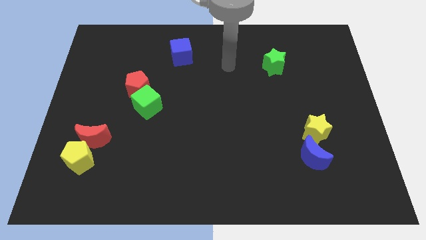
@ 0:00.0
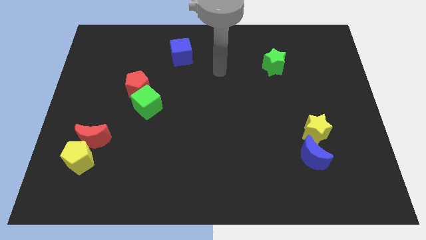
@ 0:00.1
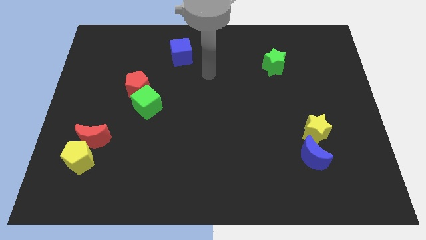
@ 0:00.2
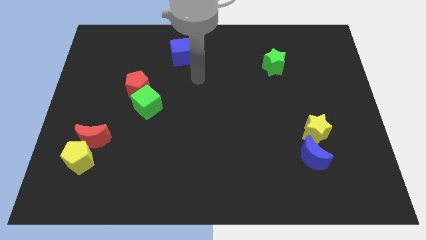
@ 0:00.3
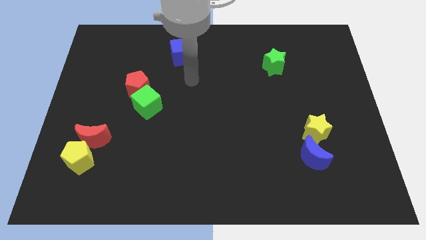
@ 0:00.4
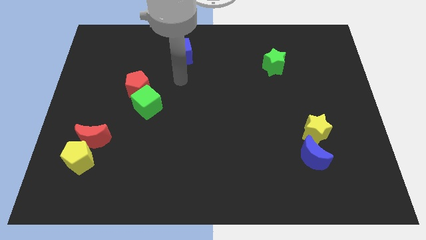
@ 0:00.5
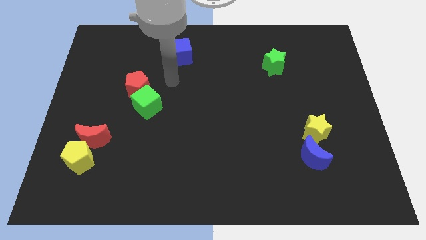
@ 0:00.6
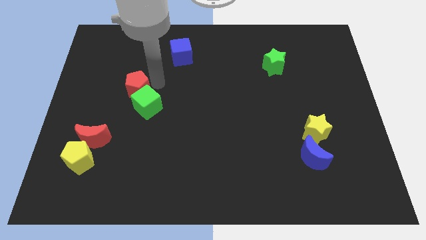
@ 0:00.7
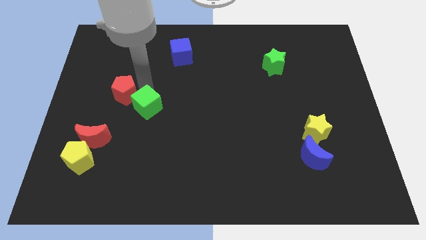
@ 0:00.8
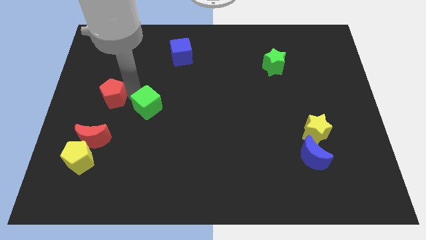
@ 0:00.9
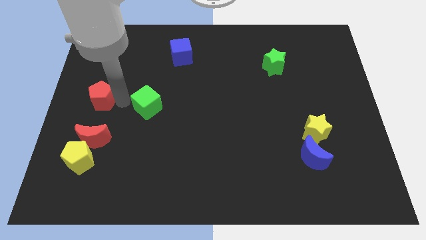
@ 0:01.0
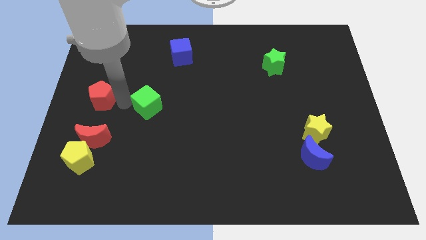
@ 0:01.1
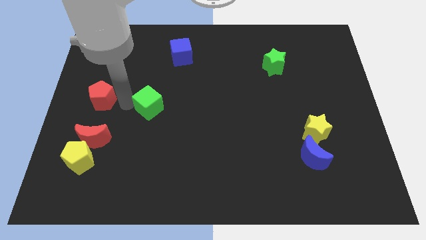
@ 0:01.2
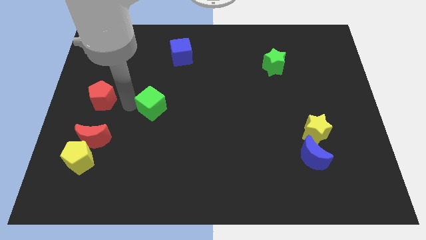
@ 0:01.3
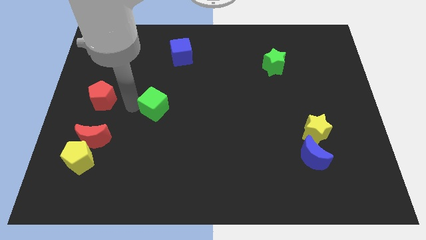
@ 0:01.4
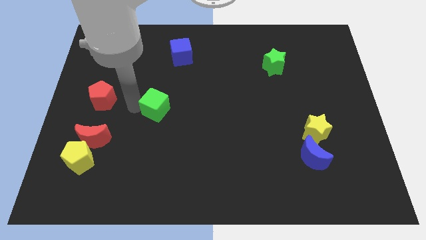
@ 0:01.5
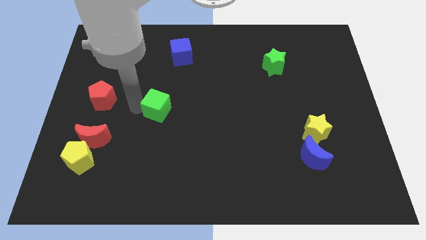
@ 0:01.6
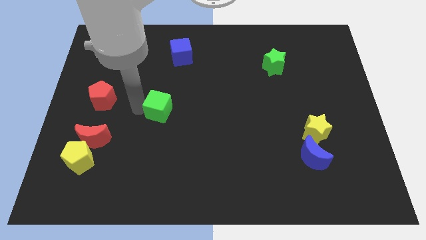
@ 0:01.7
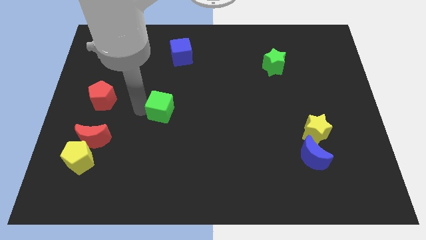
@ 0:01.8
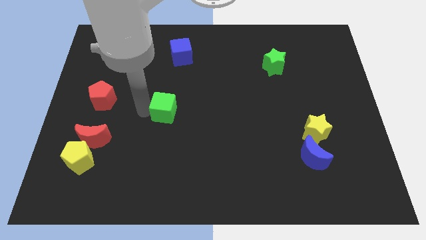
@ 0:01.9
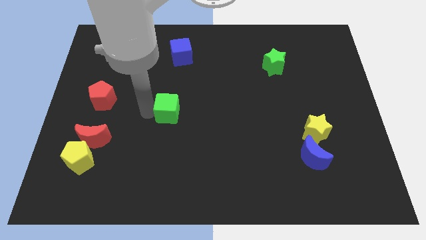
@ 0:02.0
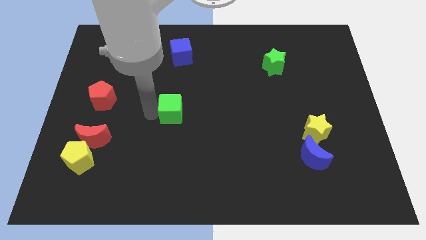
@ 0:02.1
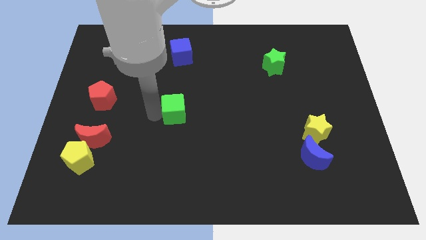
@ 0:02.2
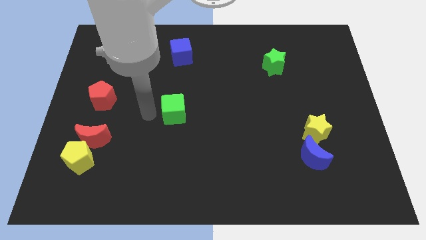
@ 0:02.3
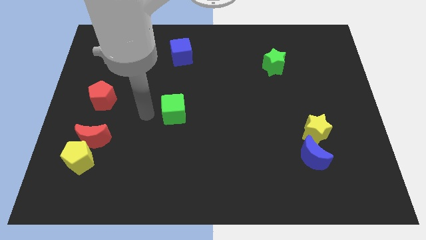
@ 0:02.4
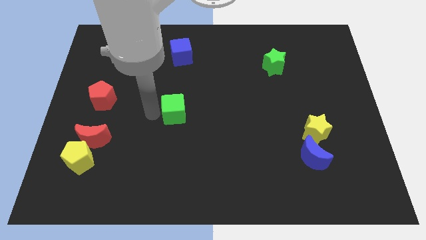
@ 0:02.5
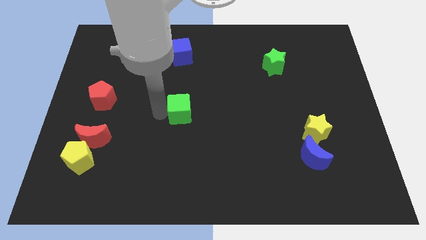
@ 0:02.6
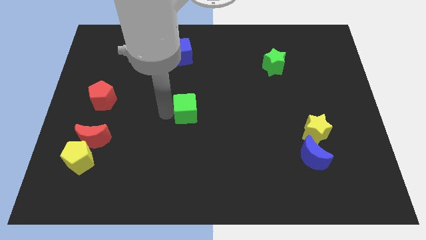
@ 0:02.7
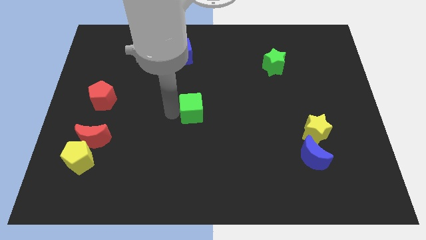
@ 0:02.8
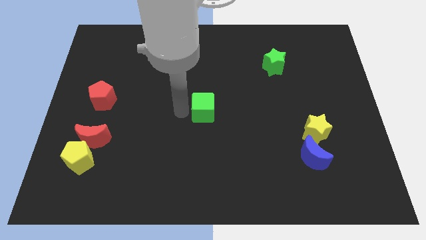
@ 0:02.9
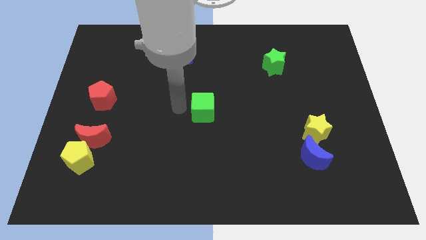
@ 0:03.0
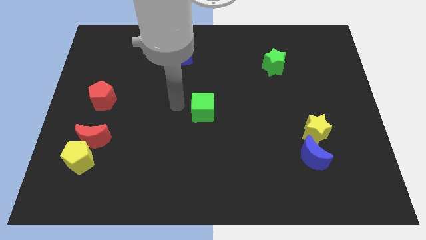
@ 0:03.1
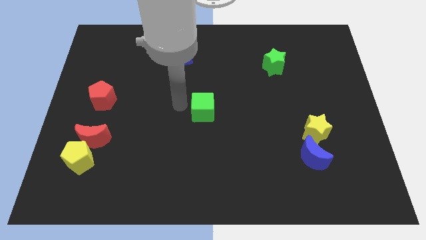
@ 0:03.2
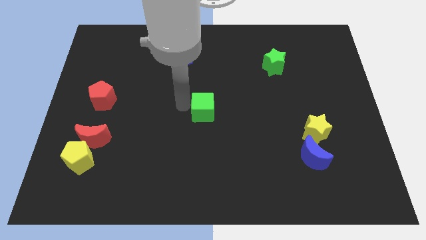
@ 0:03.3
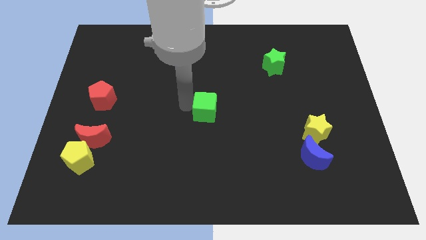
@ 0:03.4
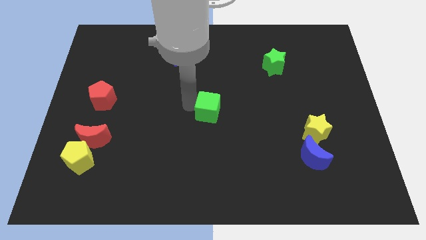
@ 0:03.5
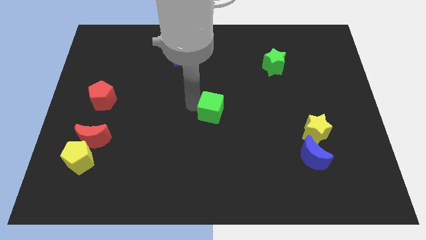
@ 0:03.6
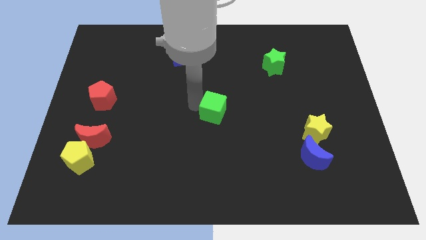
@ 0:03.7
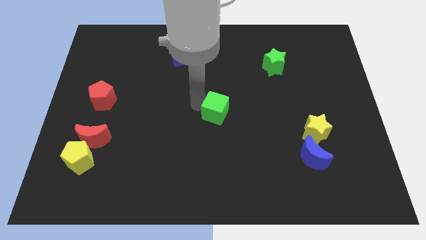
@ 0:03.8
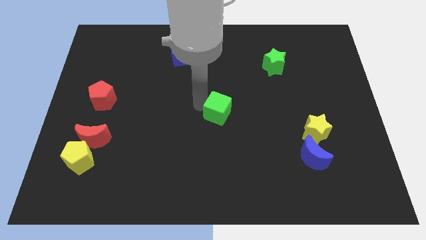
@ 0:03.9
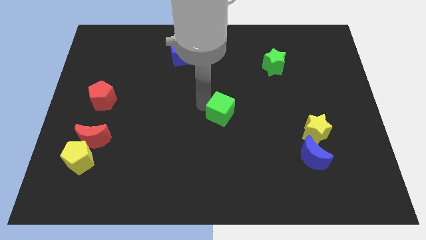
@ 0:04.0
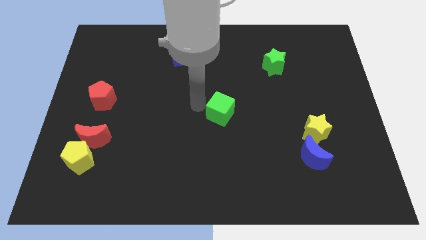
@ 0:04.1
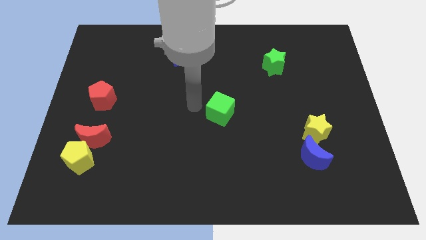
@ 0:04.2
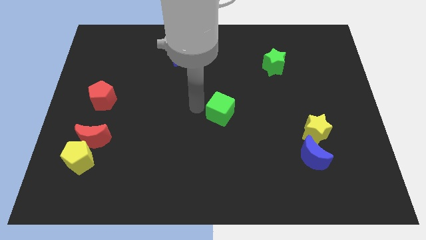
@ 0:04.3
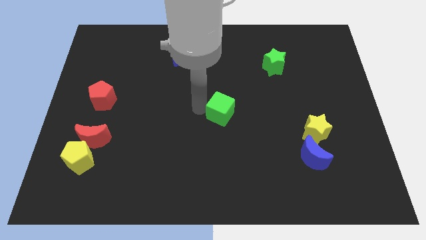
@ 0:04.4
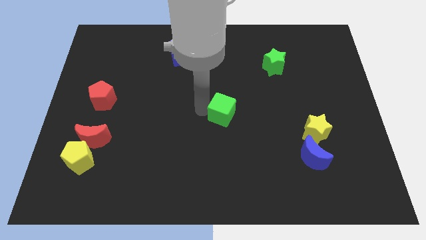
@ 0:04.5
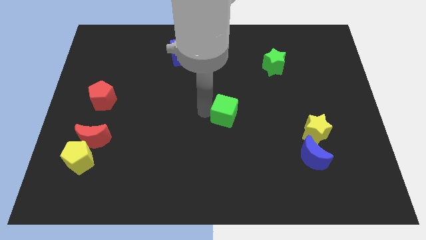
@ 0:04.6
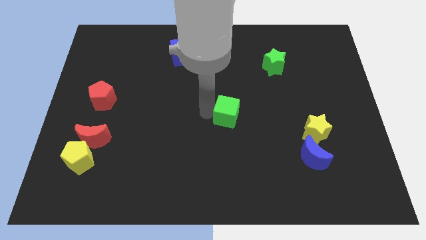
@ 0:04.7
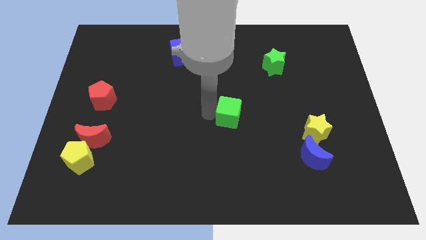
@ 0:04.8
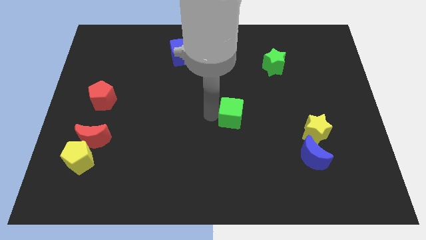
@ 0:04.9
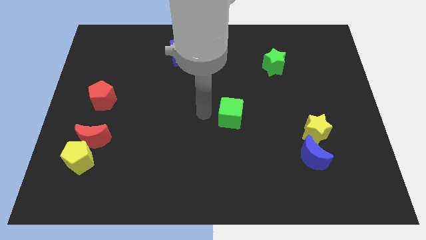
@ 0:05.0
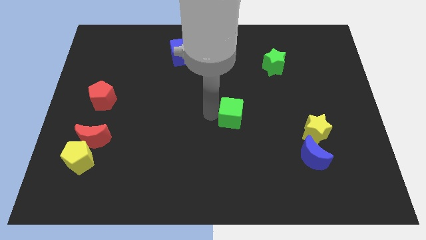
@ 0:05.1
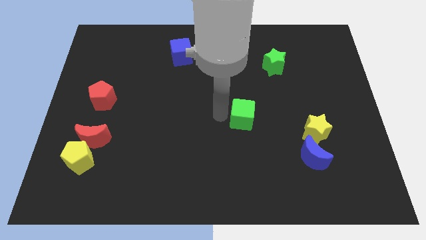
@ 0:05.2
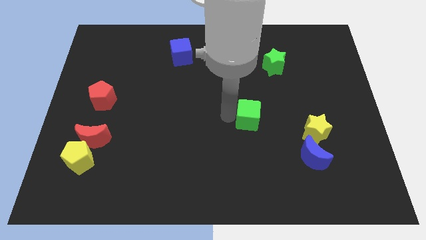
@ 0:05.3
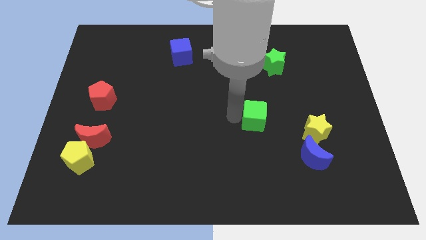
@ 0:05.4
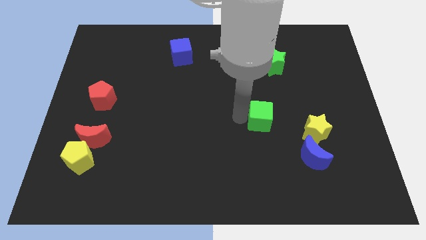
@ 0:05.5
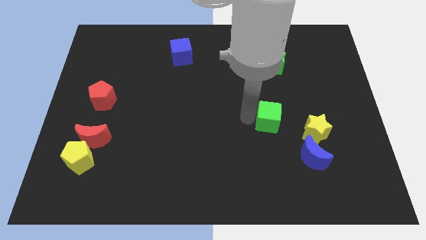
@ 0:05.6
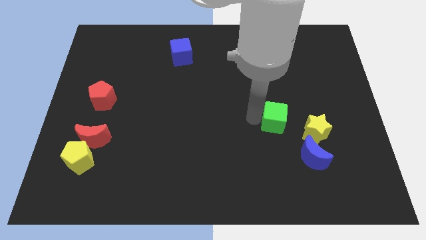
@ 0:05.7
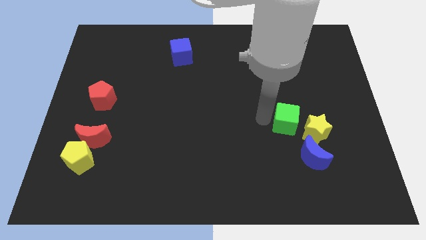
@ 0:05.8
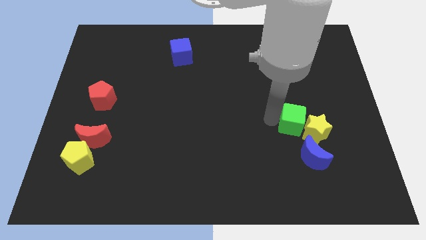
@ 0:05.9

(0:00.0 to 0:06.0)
put the green cube next to the yellow star

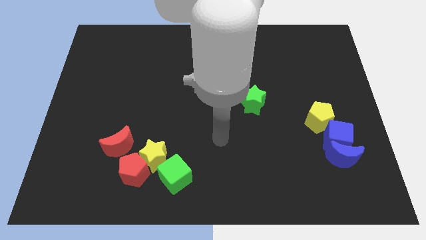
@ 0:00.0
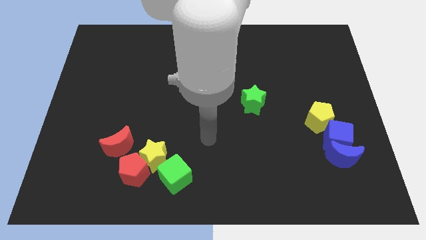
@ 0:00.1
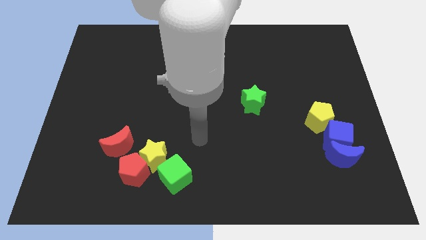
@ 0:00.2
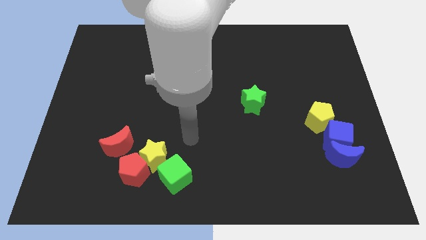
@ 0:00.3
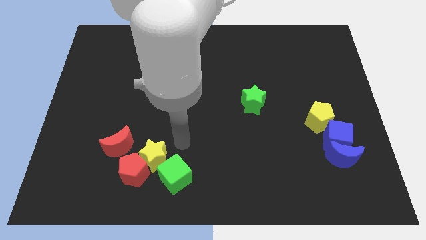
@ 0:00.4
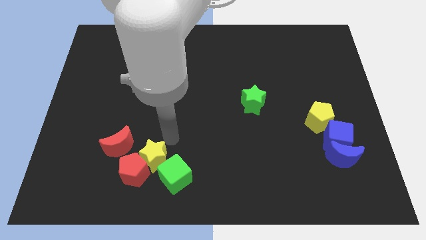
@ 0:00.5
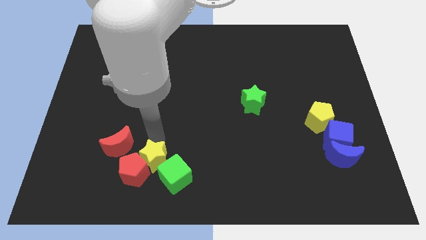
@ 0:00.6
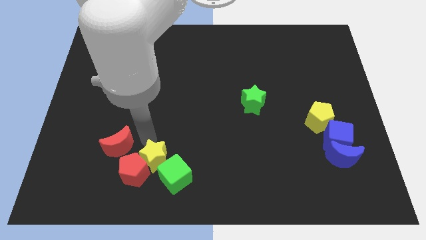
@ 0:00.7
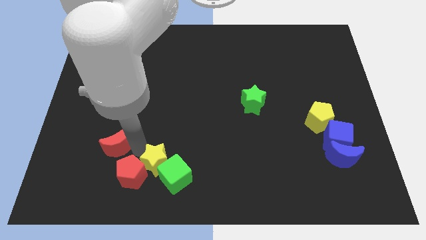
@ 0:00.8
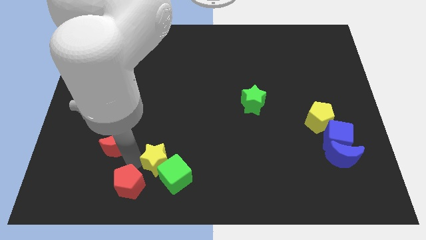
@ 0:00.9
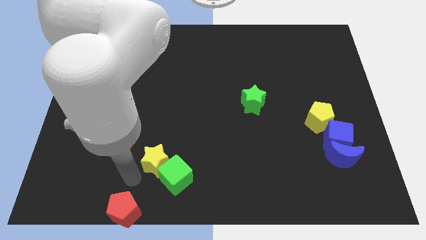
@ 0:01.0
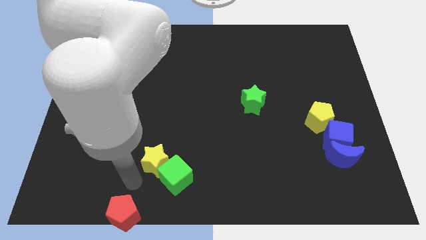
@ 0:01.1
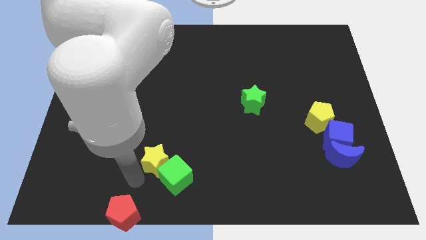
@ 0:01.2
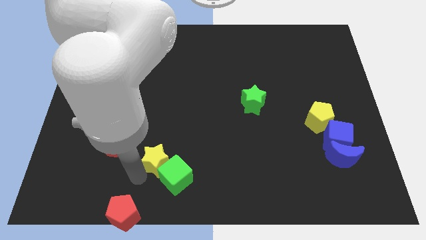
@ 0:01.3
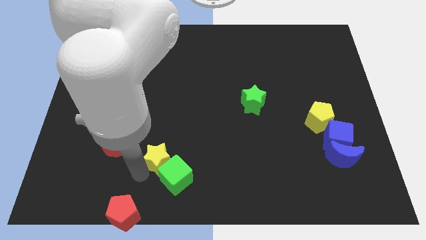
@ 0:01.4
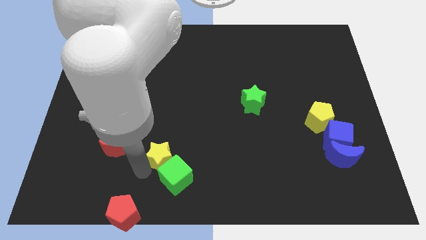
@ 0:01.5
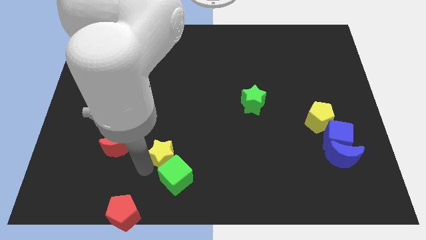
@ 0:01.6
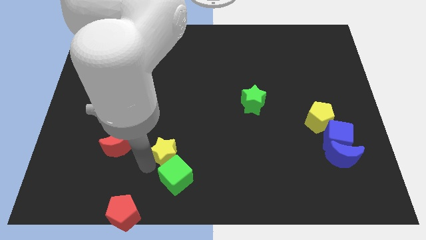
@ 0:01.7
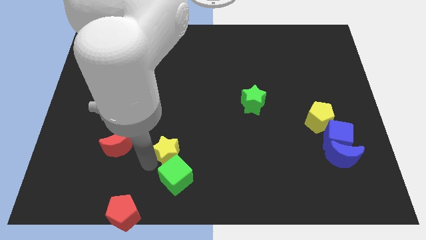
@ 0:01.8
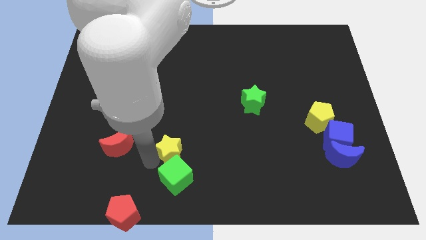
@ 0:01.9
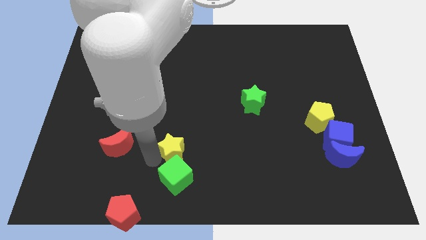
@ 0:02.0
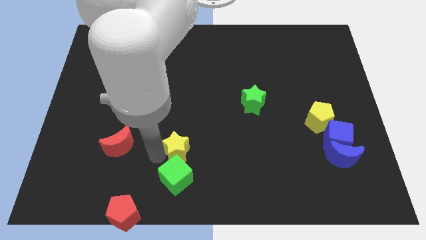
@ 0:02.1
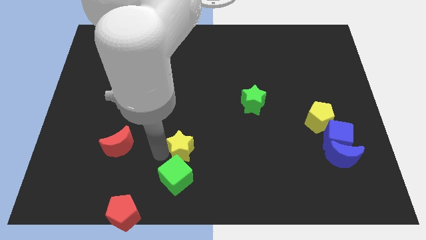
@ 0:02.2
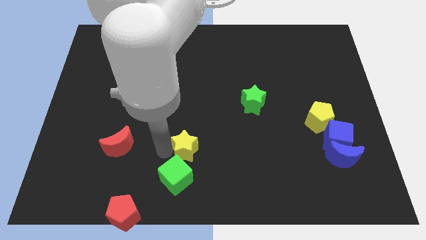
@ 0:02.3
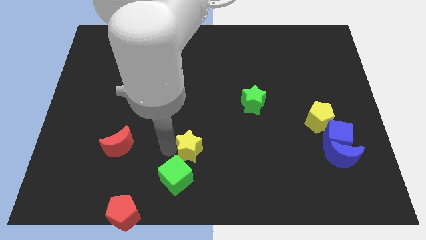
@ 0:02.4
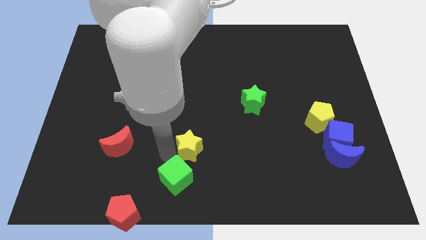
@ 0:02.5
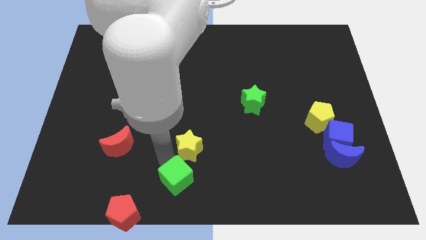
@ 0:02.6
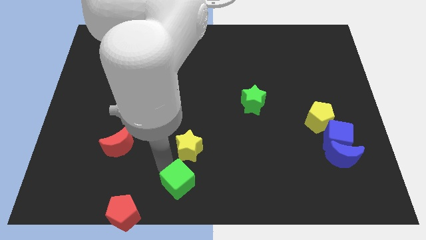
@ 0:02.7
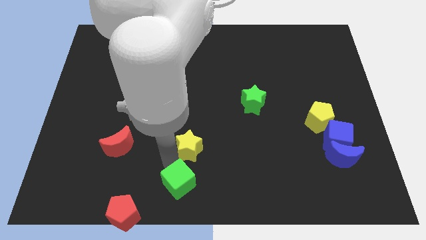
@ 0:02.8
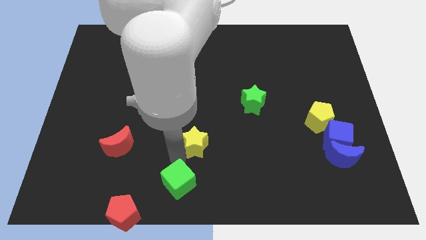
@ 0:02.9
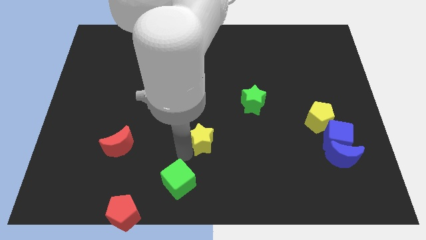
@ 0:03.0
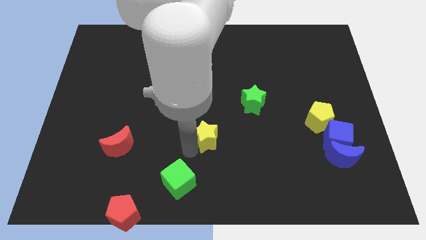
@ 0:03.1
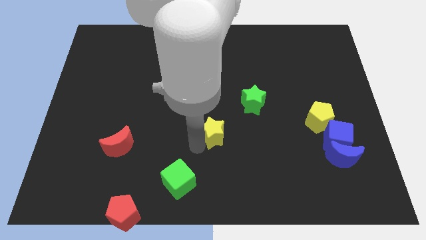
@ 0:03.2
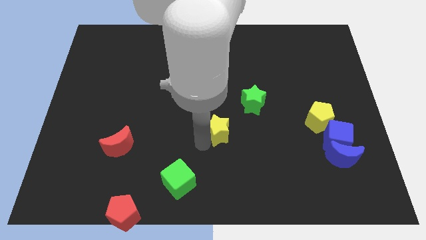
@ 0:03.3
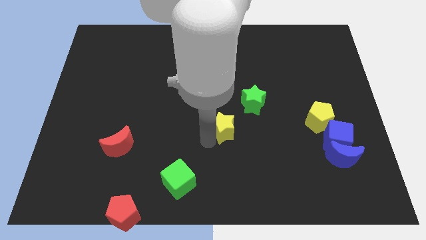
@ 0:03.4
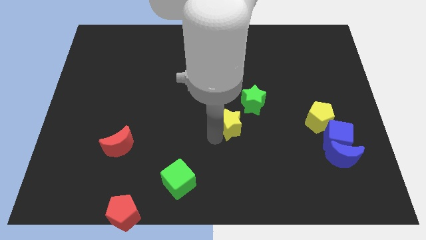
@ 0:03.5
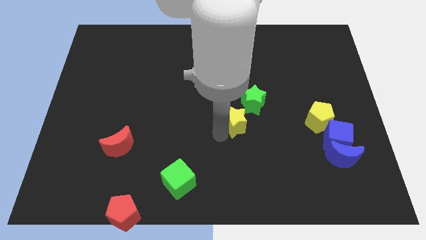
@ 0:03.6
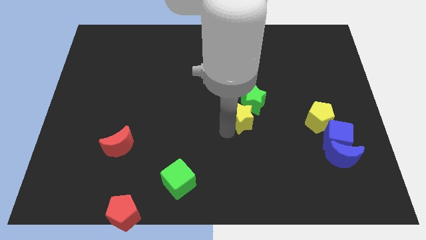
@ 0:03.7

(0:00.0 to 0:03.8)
move the yellow star close to the green star
